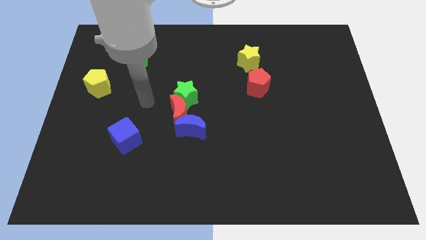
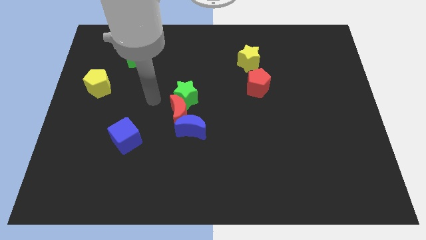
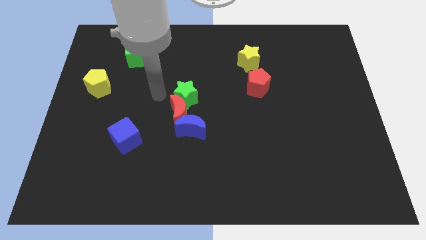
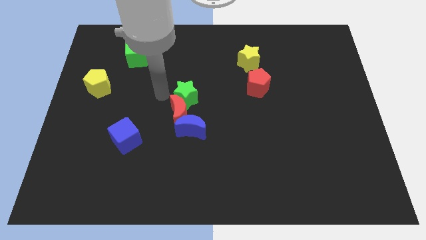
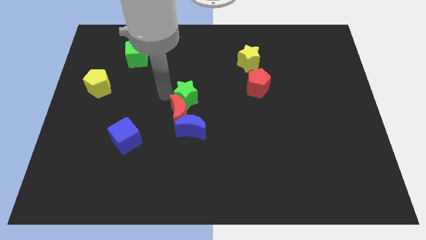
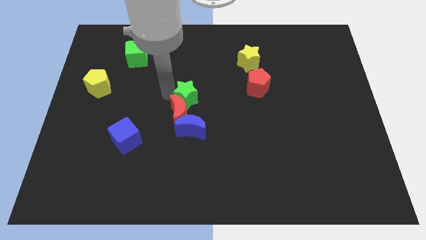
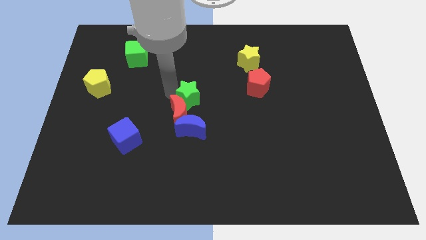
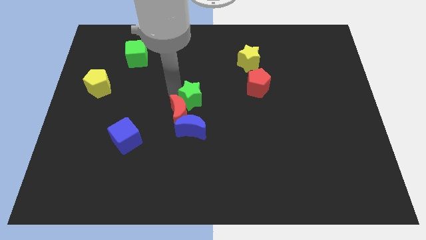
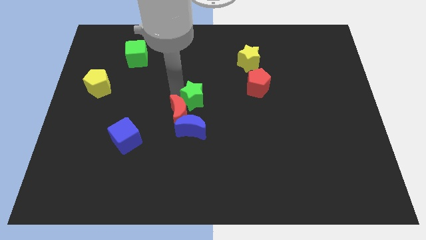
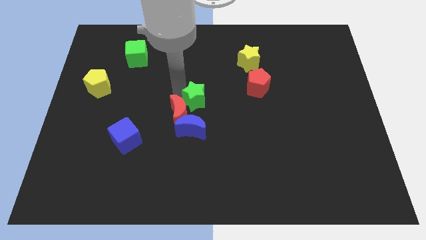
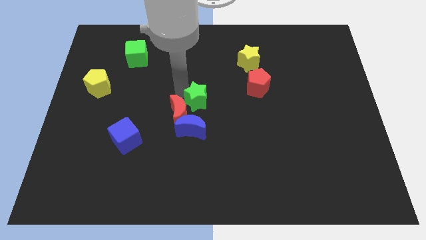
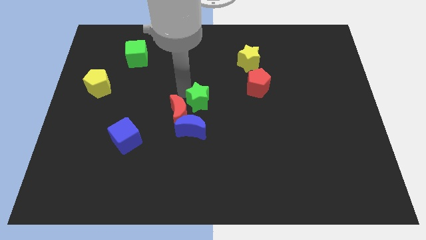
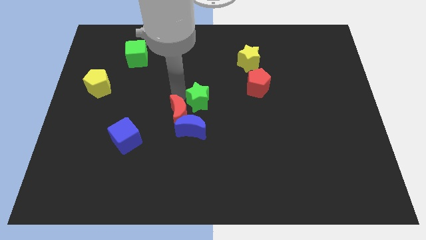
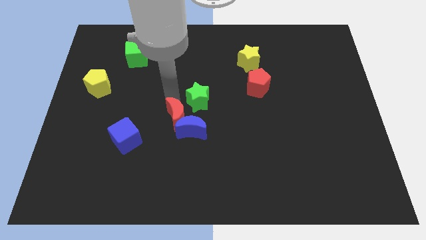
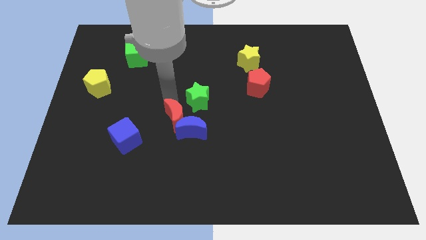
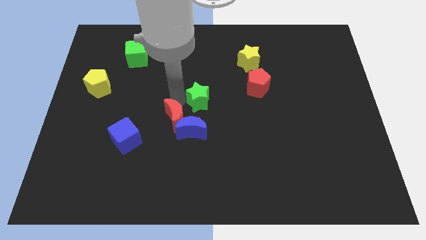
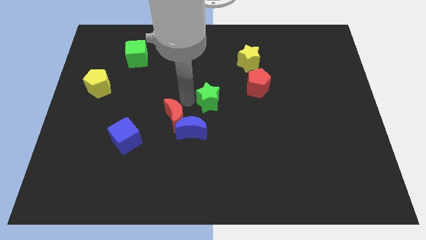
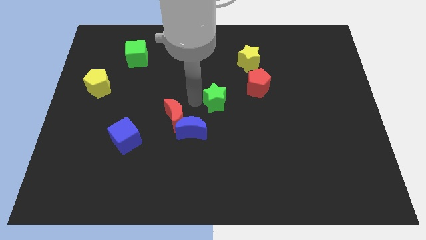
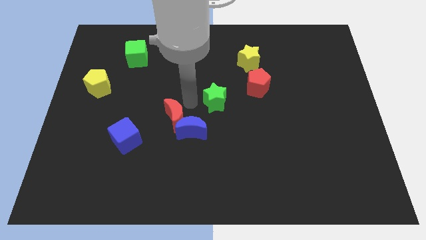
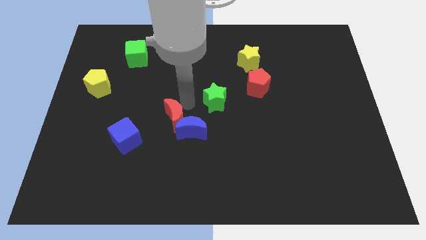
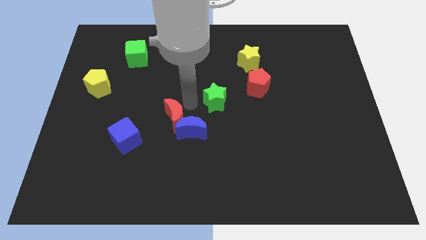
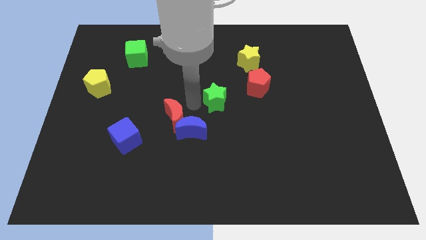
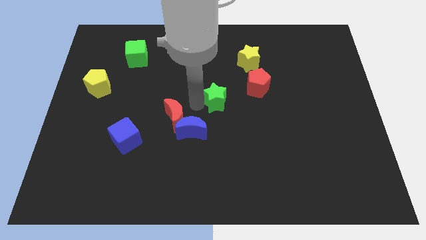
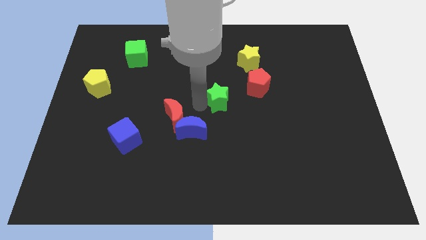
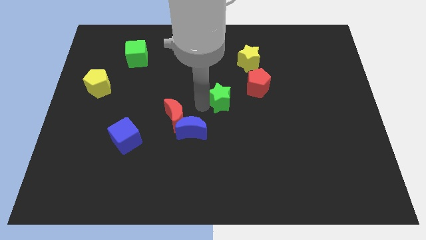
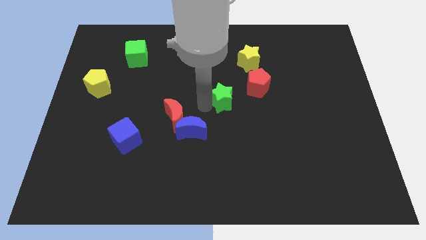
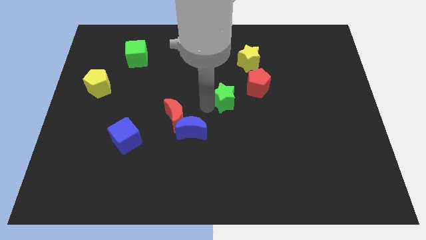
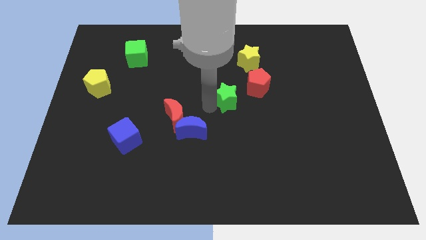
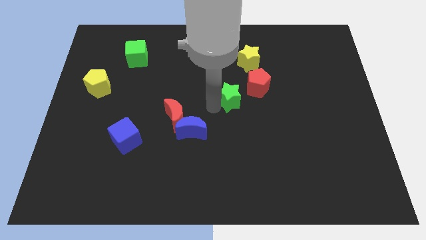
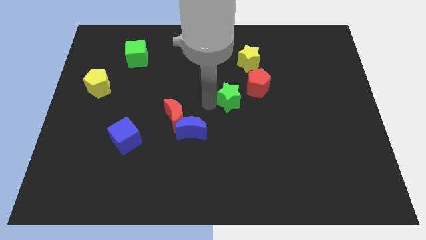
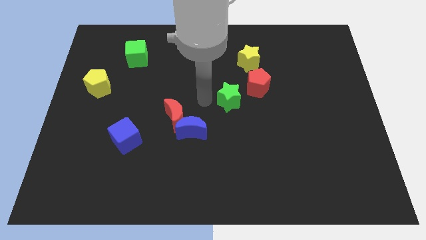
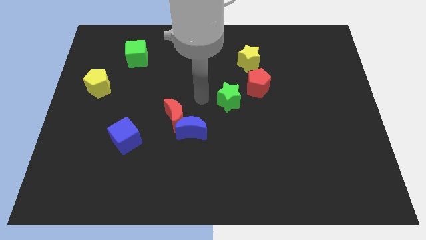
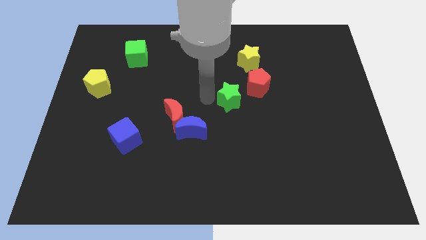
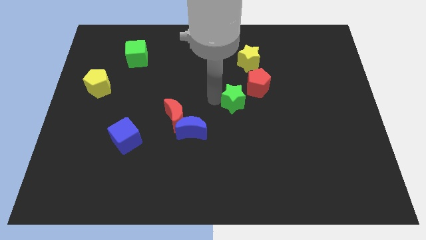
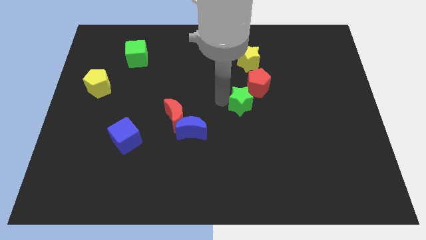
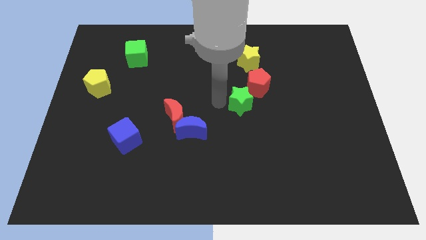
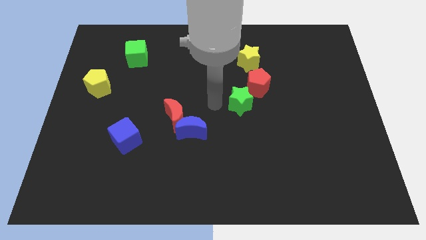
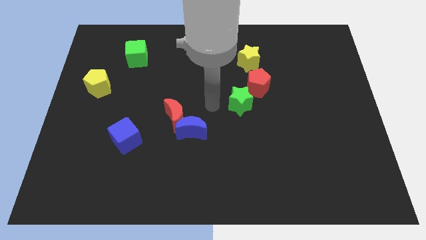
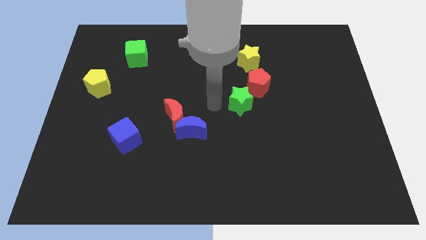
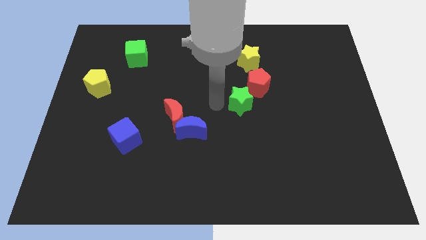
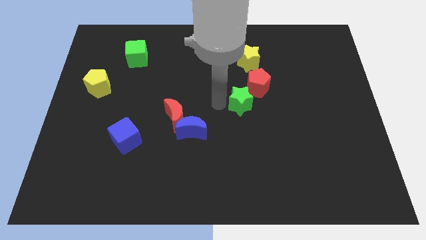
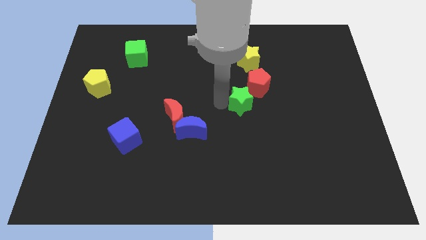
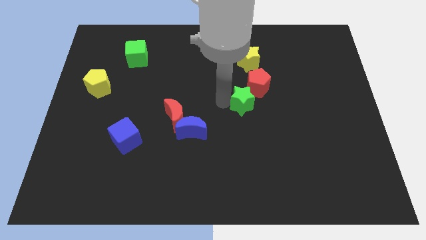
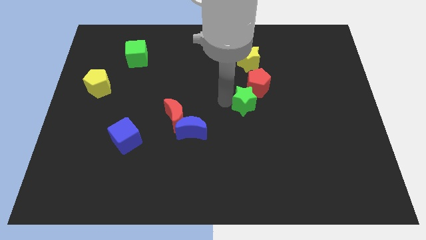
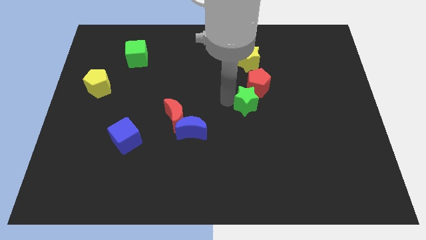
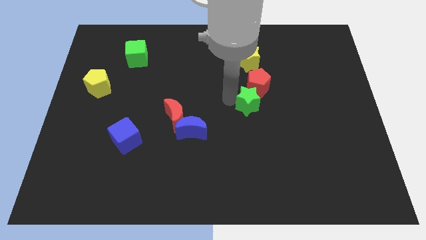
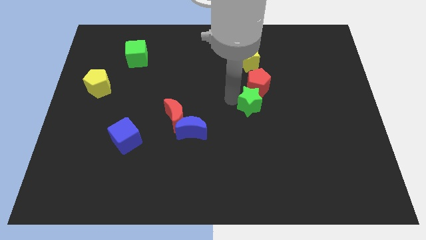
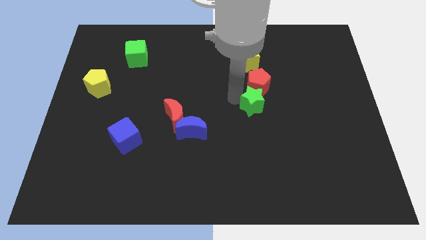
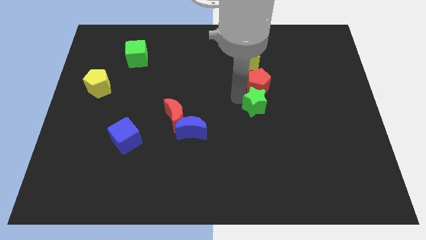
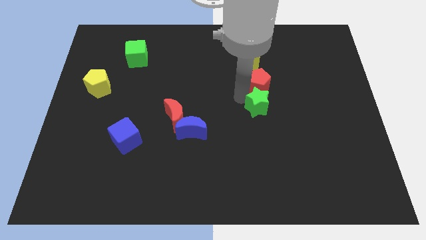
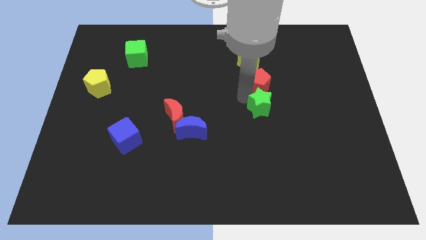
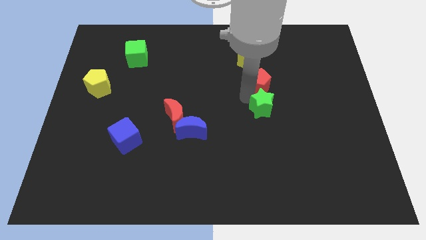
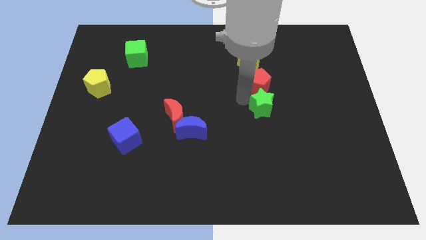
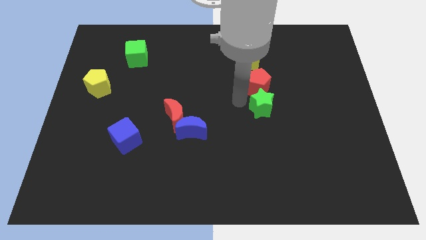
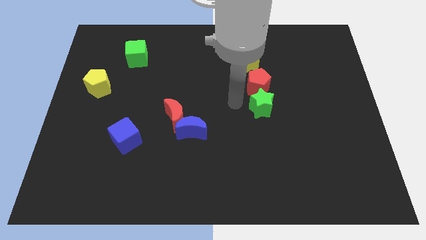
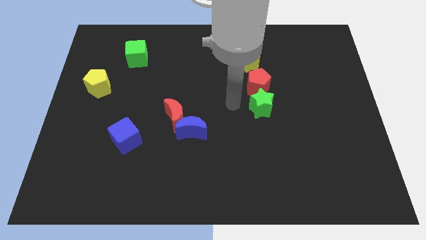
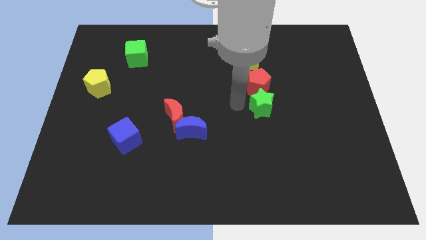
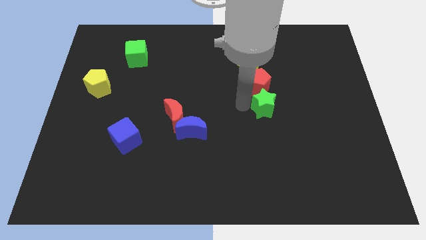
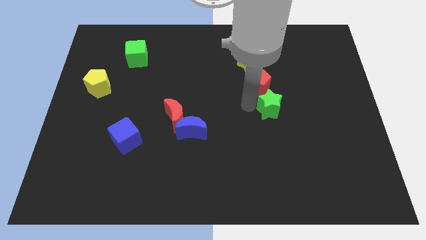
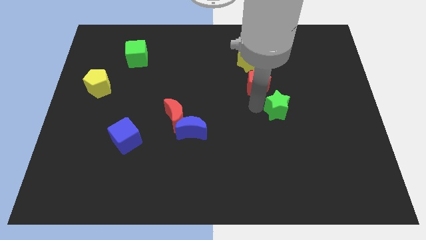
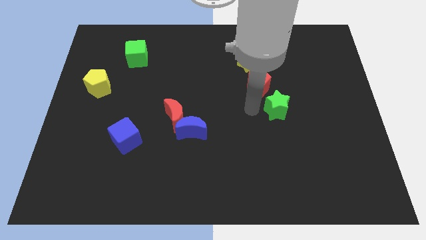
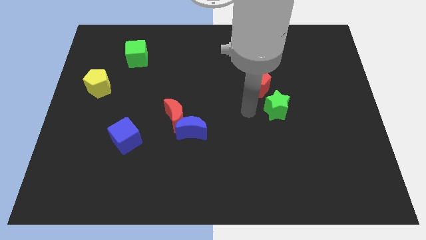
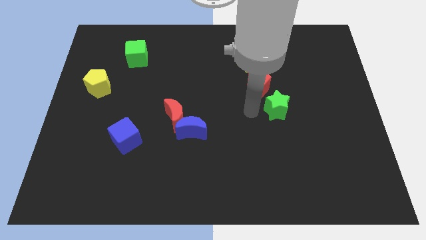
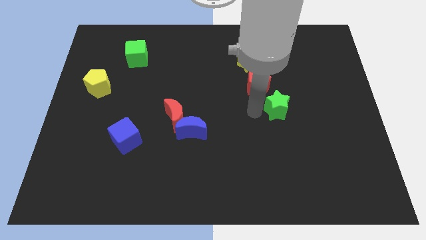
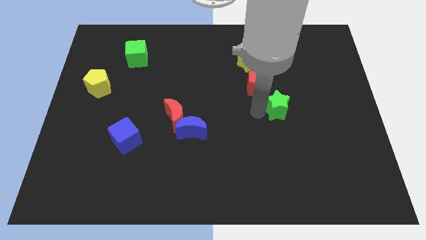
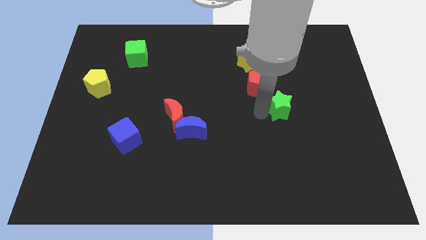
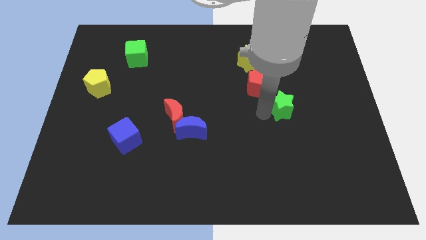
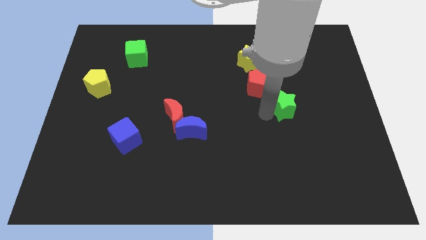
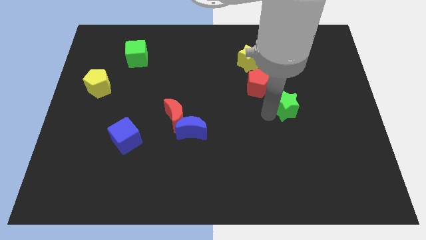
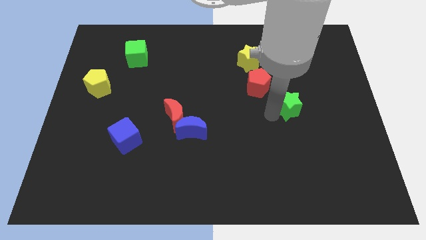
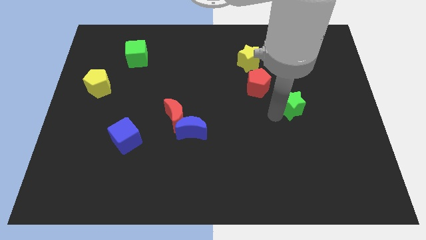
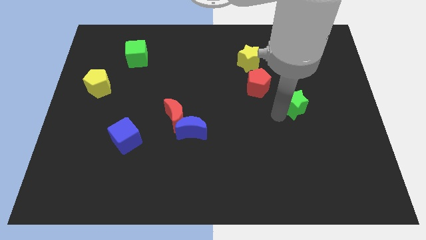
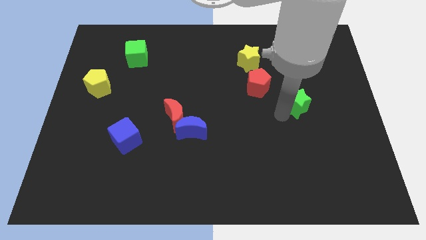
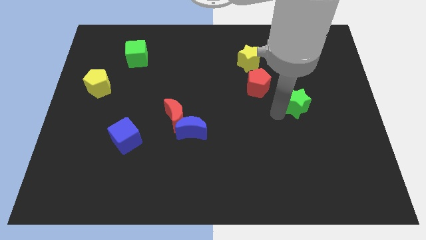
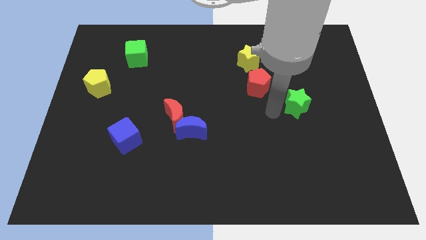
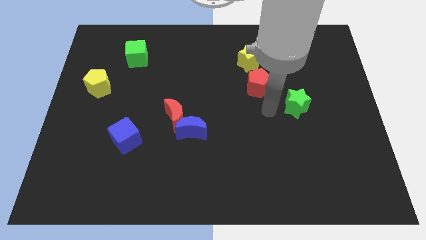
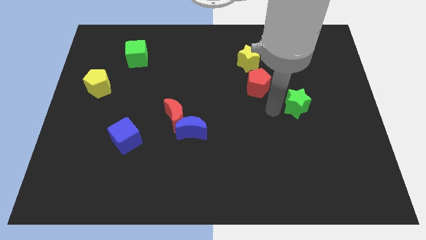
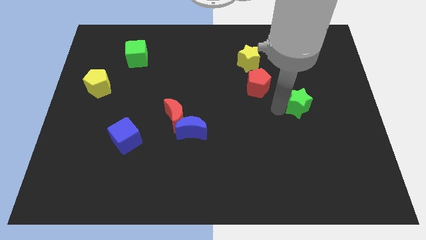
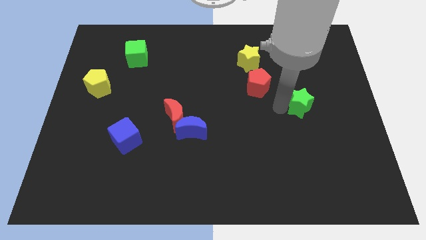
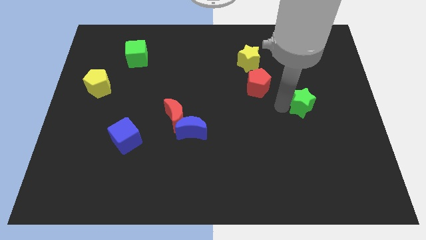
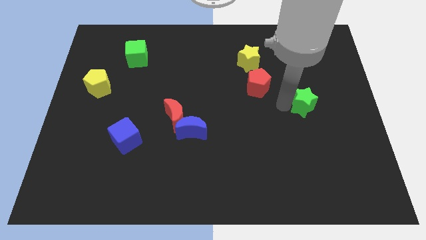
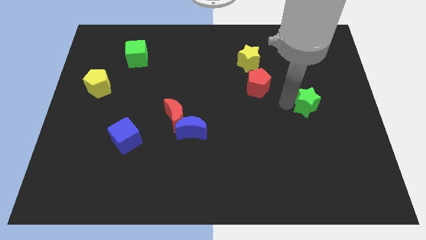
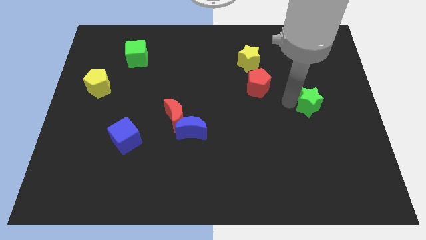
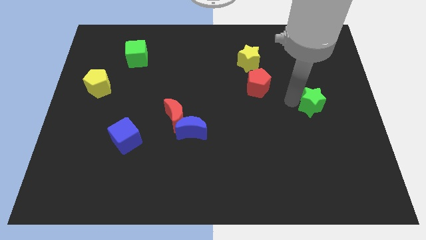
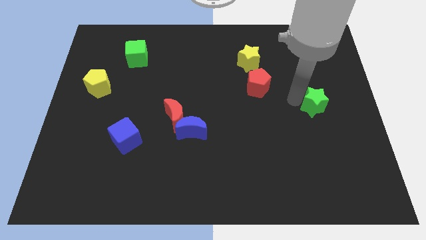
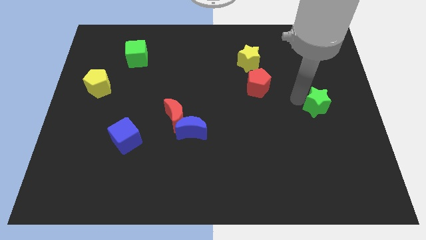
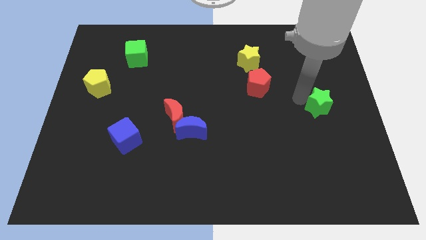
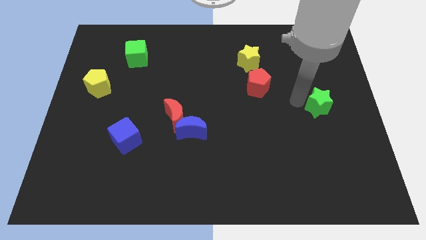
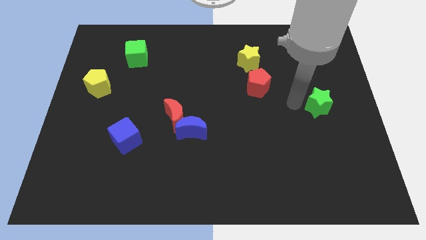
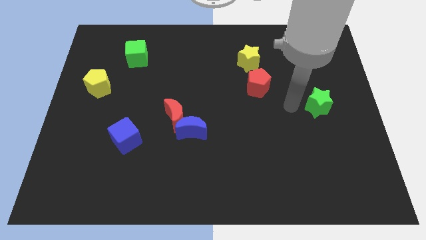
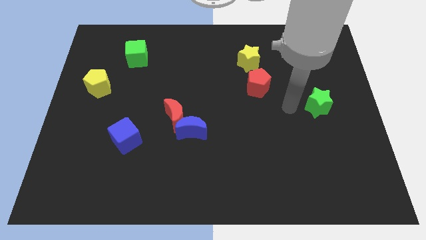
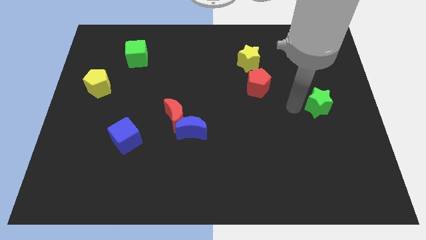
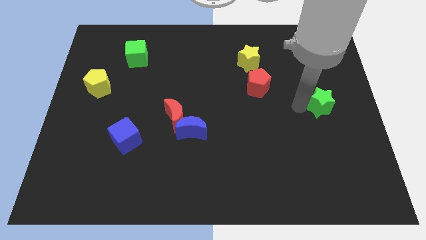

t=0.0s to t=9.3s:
slide the green star to the right side
